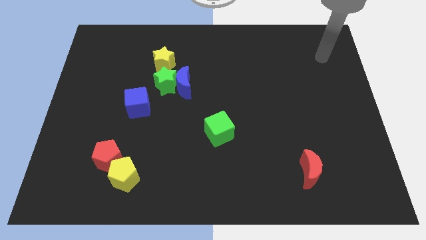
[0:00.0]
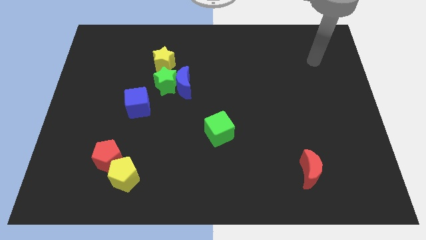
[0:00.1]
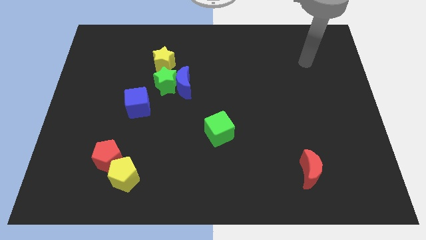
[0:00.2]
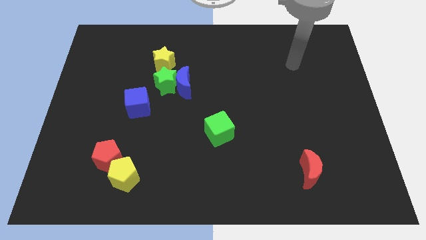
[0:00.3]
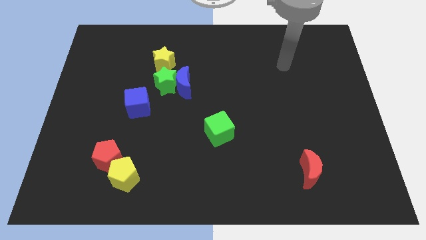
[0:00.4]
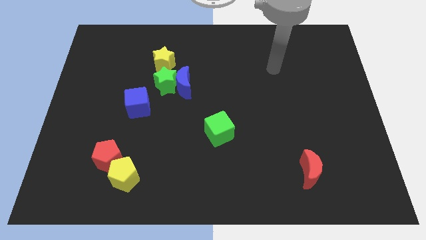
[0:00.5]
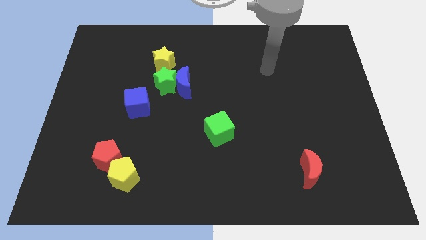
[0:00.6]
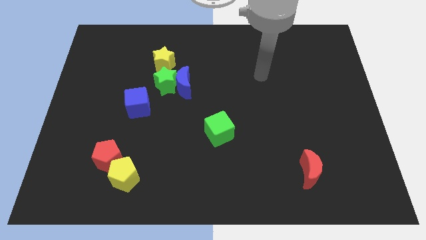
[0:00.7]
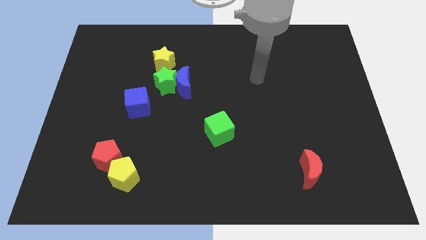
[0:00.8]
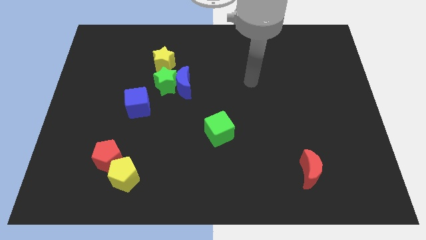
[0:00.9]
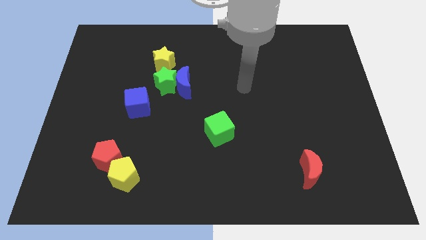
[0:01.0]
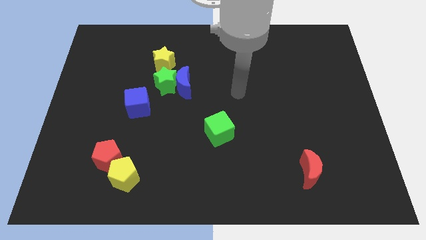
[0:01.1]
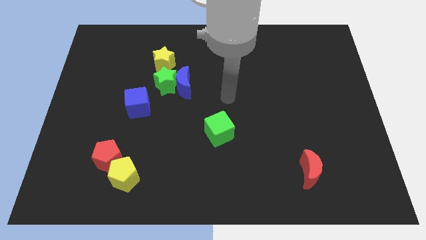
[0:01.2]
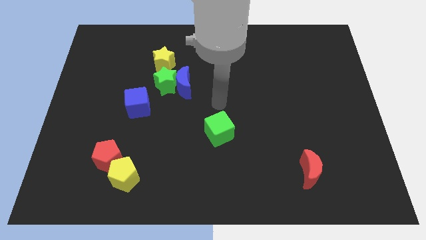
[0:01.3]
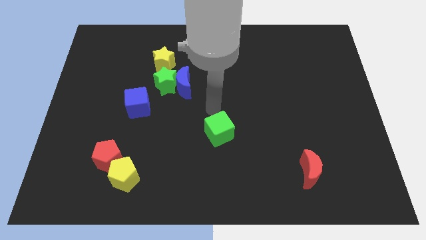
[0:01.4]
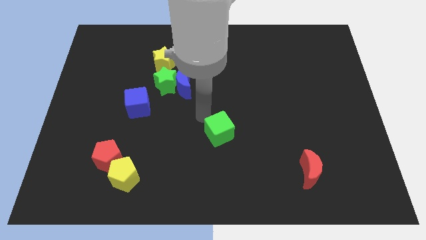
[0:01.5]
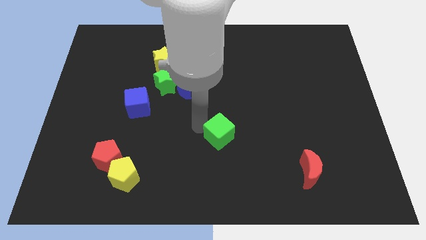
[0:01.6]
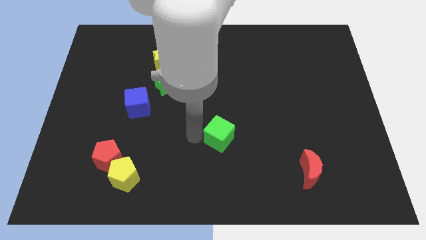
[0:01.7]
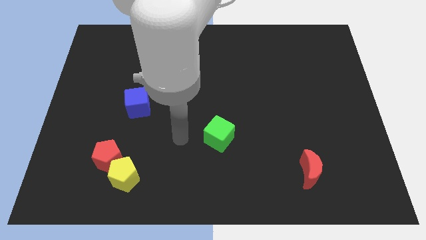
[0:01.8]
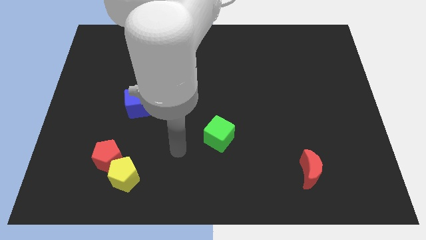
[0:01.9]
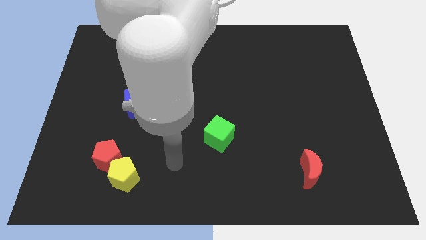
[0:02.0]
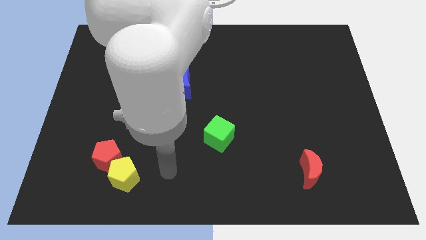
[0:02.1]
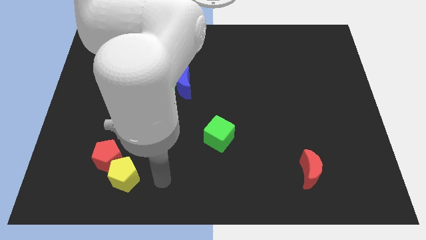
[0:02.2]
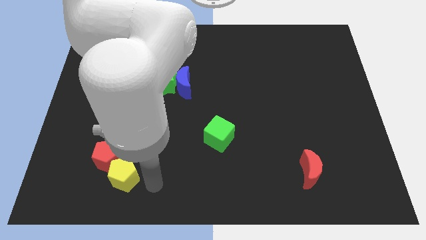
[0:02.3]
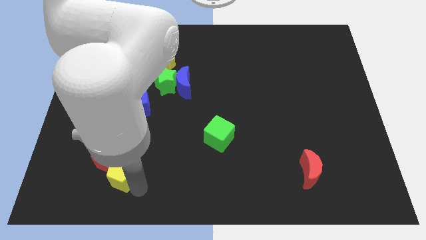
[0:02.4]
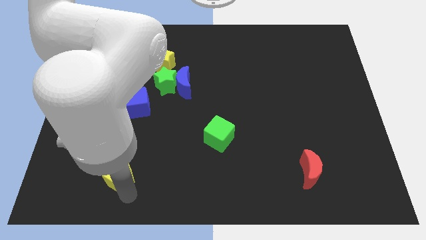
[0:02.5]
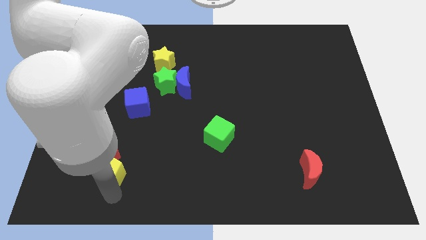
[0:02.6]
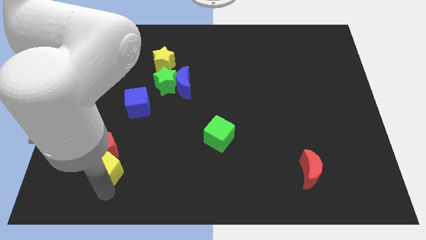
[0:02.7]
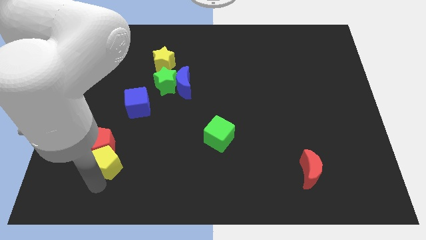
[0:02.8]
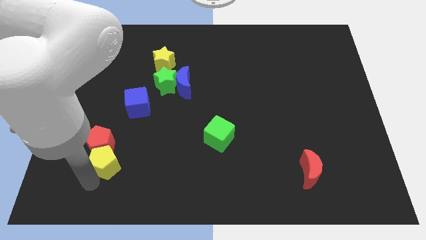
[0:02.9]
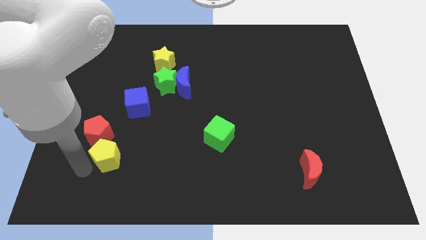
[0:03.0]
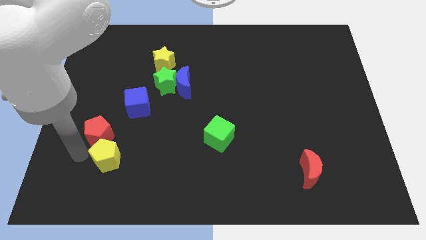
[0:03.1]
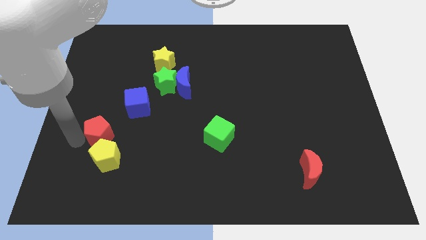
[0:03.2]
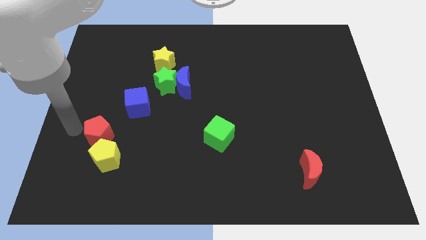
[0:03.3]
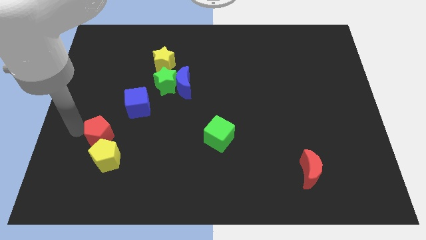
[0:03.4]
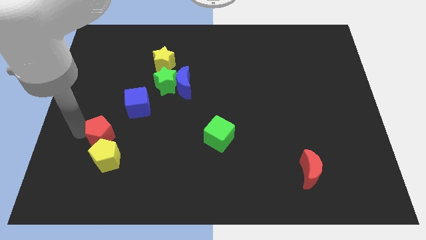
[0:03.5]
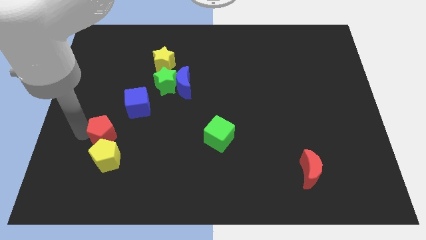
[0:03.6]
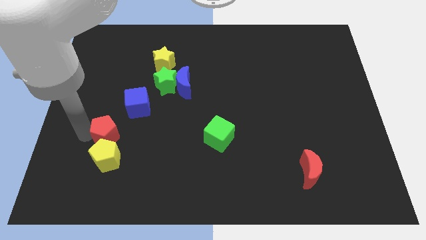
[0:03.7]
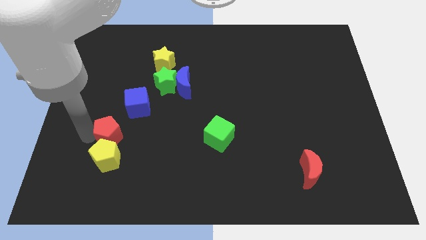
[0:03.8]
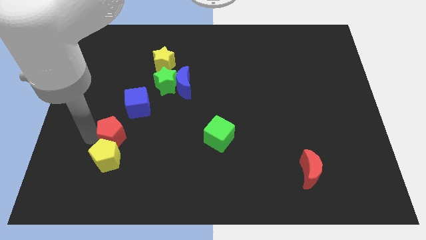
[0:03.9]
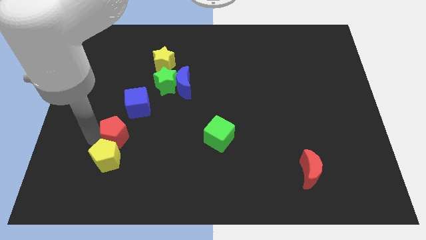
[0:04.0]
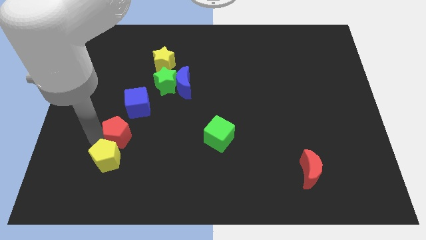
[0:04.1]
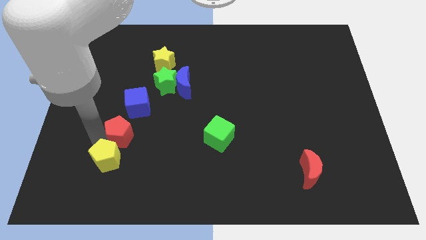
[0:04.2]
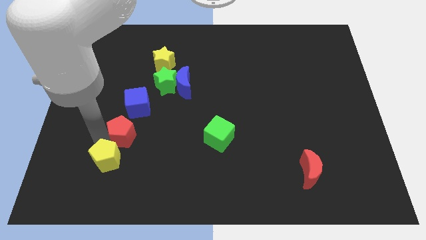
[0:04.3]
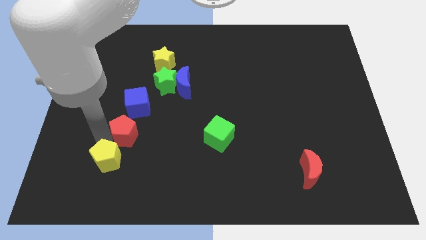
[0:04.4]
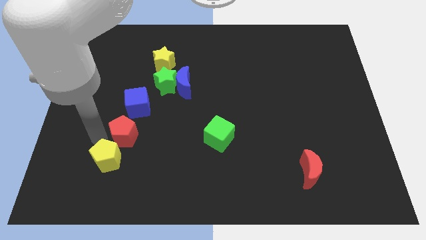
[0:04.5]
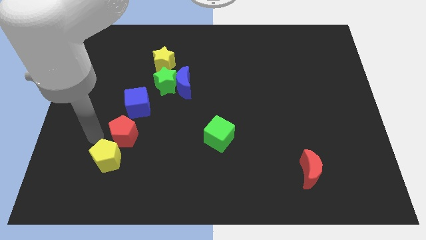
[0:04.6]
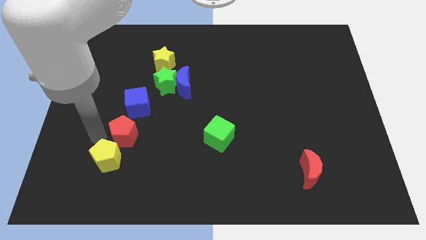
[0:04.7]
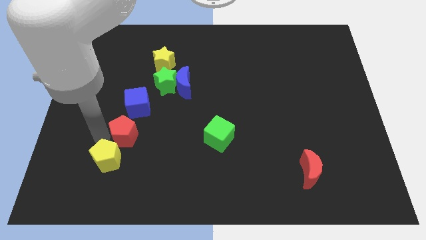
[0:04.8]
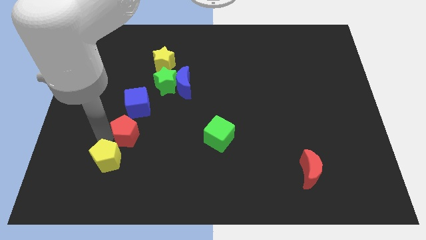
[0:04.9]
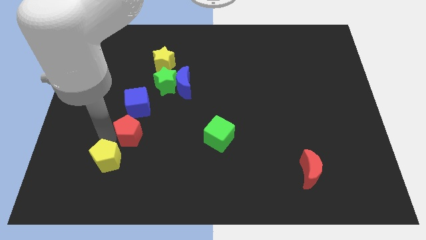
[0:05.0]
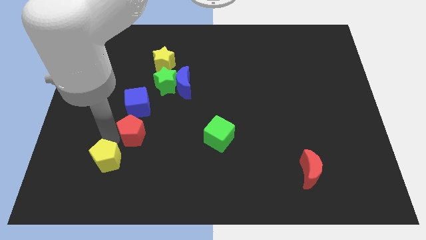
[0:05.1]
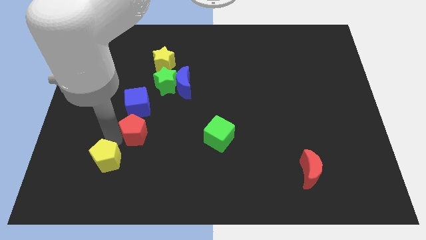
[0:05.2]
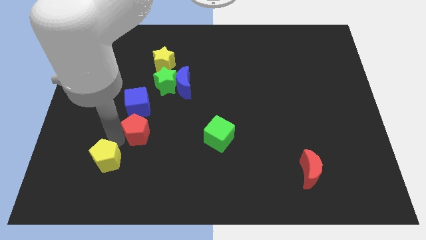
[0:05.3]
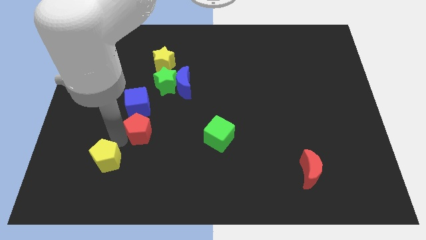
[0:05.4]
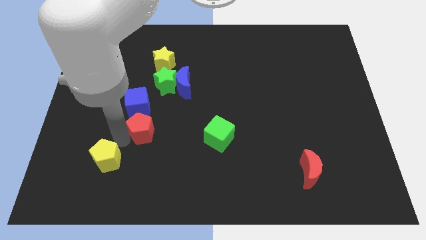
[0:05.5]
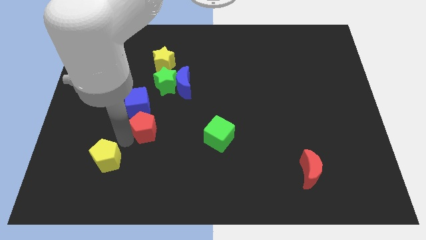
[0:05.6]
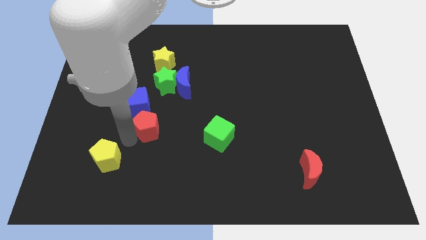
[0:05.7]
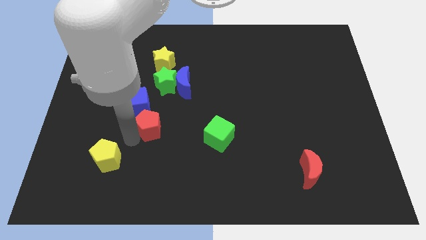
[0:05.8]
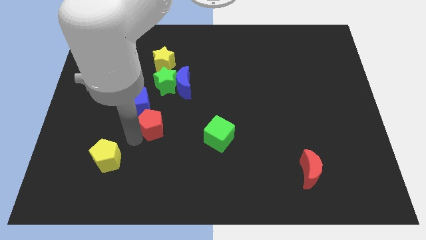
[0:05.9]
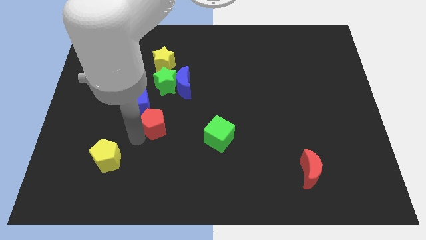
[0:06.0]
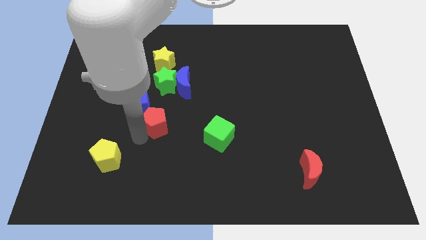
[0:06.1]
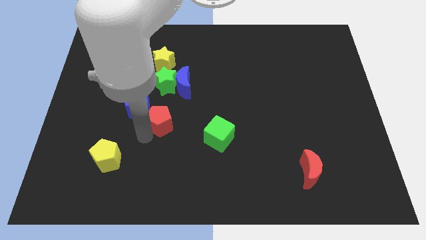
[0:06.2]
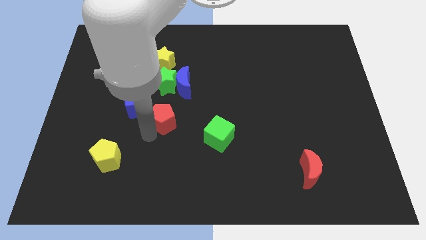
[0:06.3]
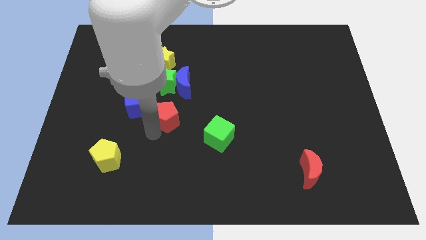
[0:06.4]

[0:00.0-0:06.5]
push the red pentagon to the center
